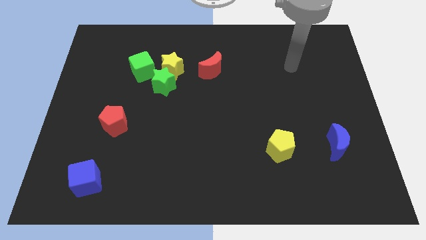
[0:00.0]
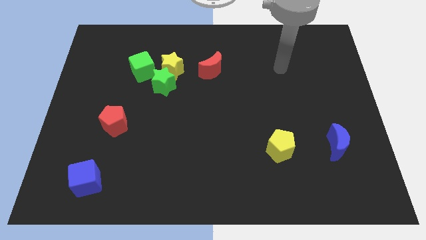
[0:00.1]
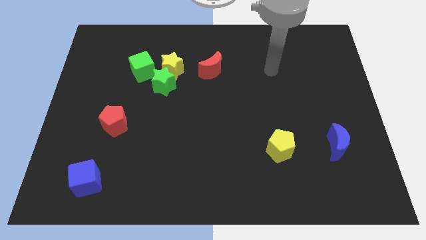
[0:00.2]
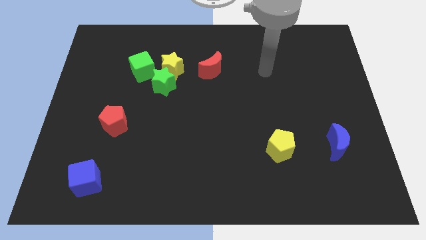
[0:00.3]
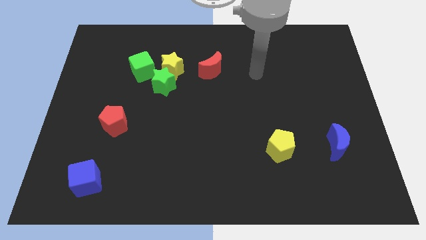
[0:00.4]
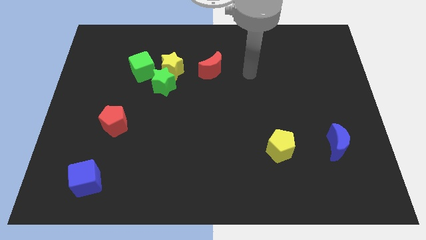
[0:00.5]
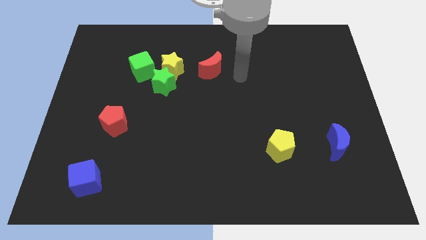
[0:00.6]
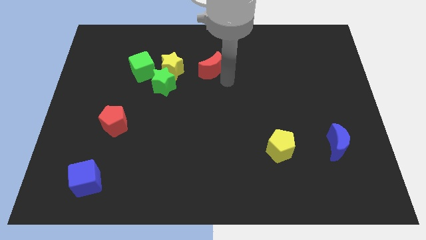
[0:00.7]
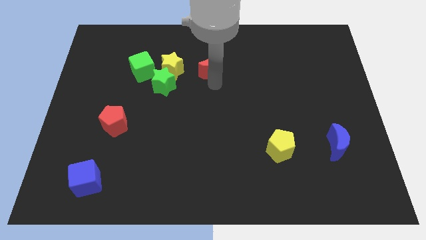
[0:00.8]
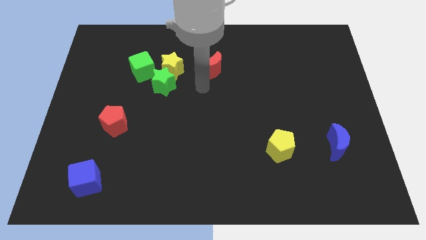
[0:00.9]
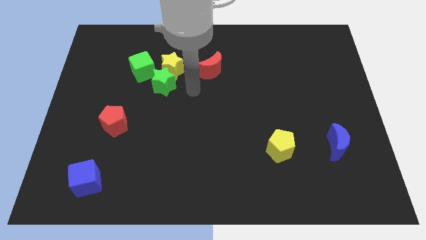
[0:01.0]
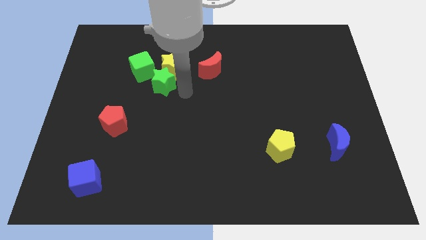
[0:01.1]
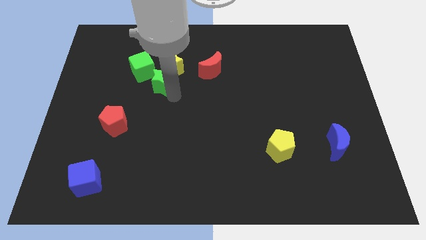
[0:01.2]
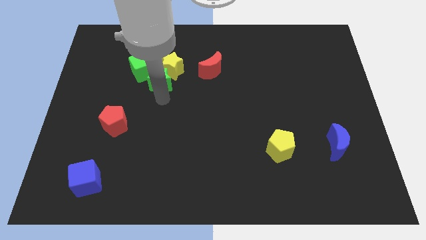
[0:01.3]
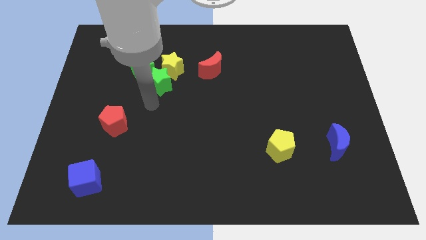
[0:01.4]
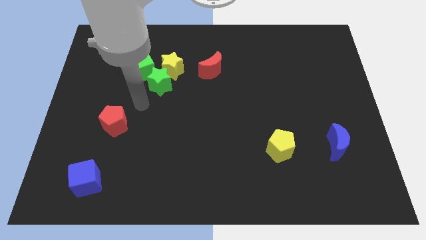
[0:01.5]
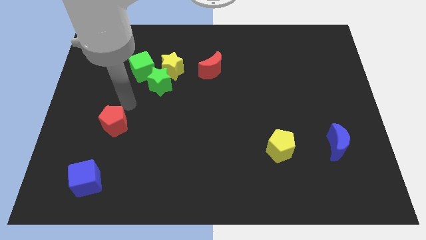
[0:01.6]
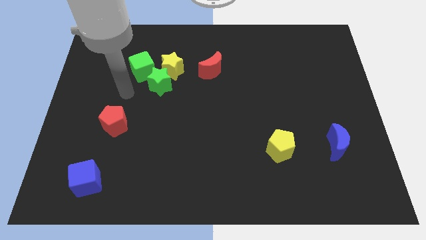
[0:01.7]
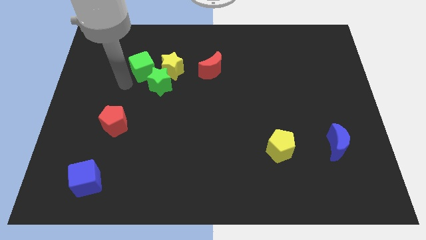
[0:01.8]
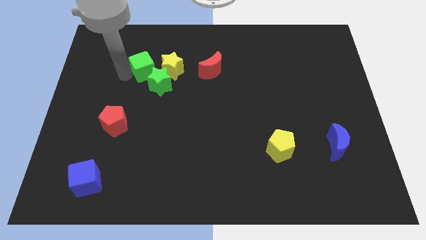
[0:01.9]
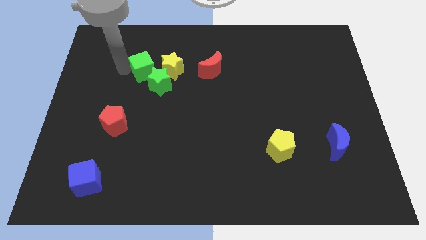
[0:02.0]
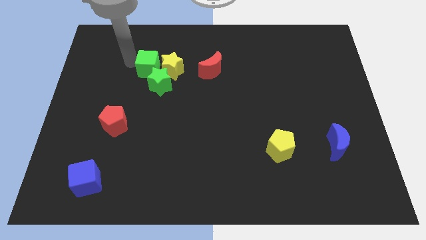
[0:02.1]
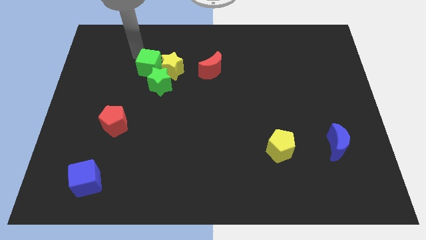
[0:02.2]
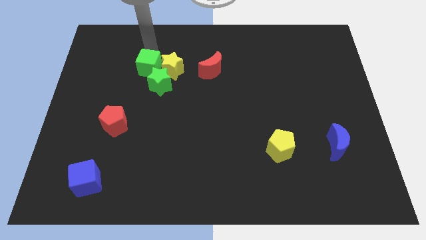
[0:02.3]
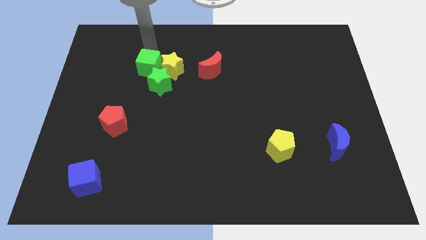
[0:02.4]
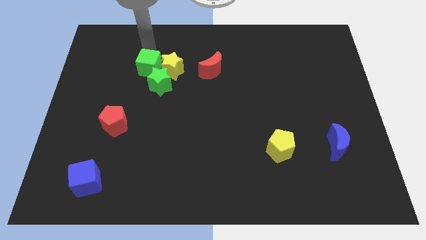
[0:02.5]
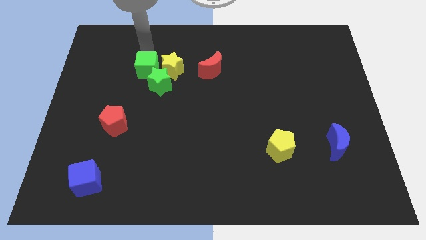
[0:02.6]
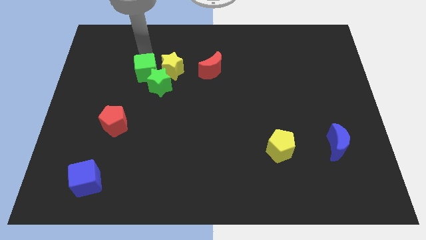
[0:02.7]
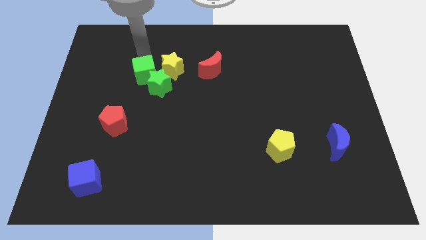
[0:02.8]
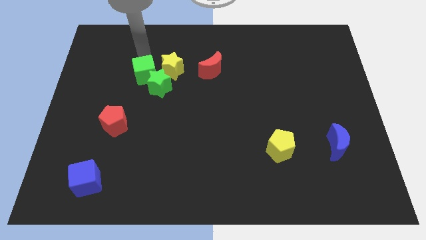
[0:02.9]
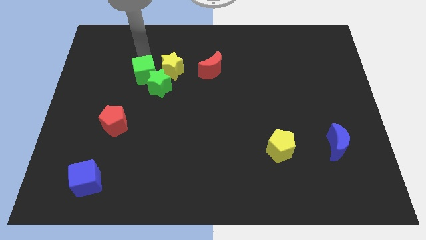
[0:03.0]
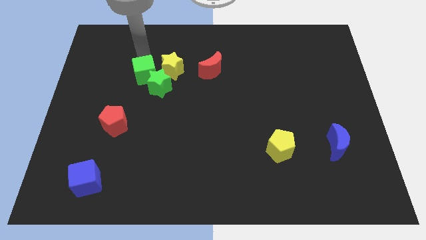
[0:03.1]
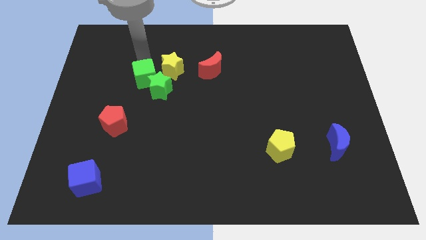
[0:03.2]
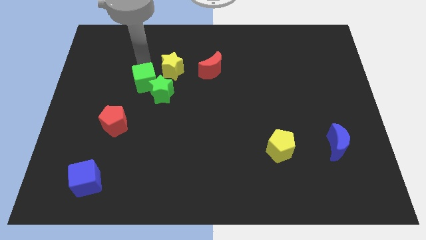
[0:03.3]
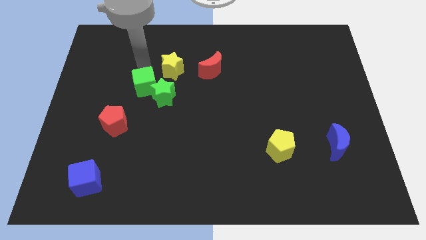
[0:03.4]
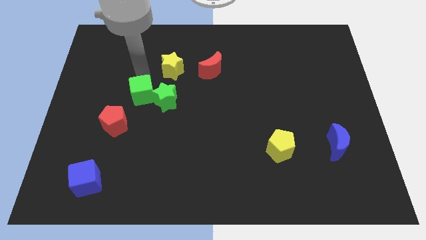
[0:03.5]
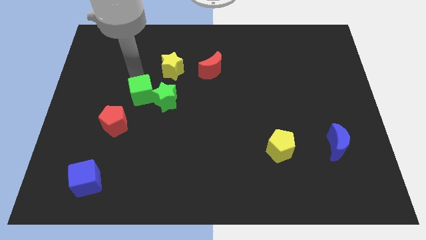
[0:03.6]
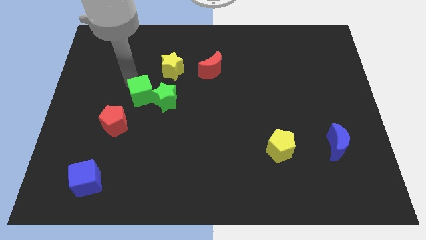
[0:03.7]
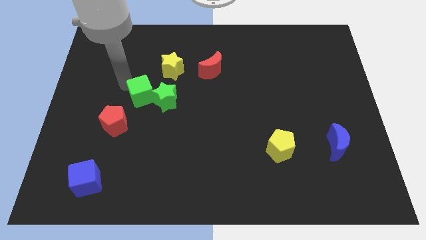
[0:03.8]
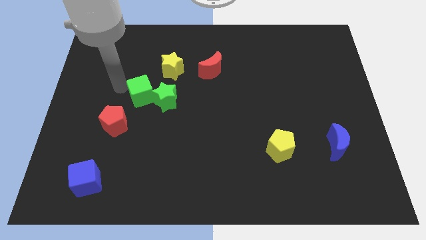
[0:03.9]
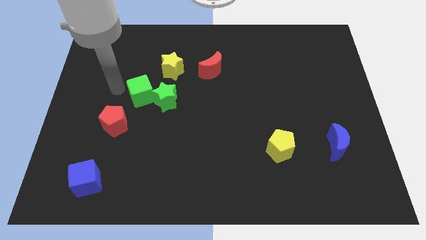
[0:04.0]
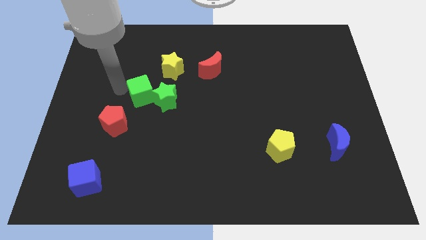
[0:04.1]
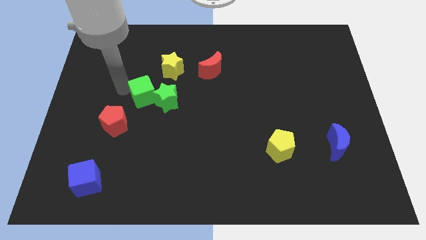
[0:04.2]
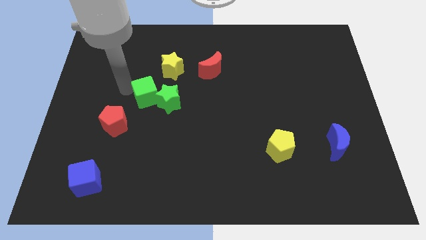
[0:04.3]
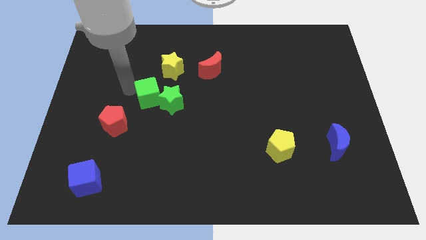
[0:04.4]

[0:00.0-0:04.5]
push the green cube down and to the right slightly

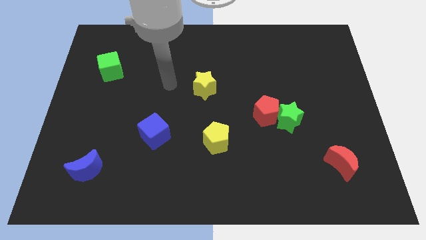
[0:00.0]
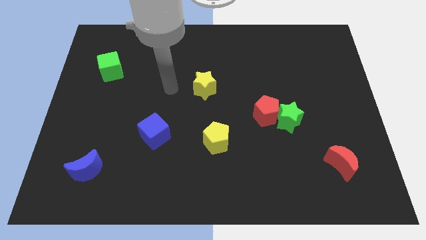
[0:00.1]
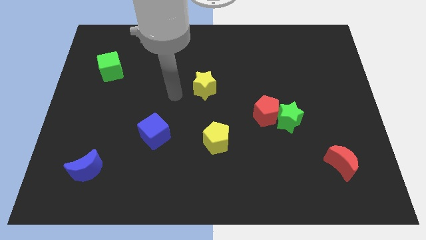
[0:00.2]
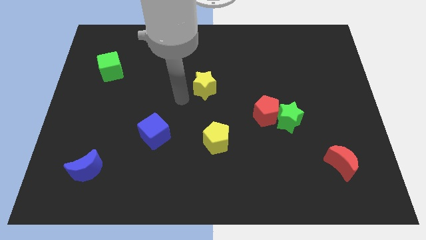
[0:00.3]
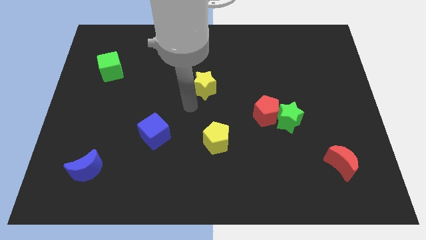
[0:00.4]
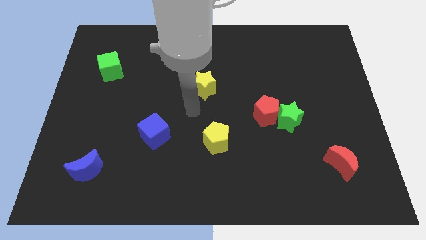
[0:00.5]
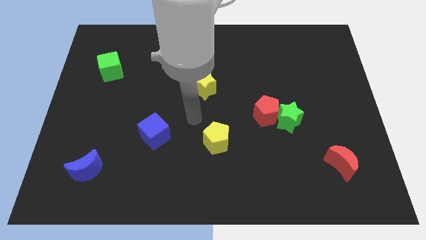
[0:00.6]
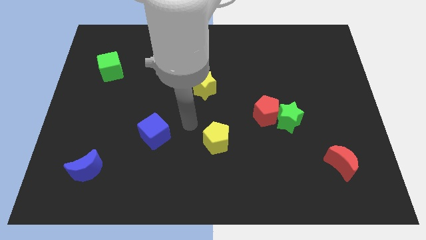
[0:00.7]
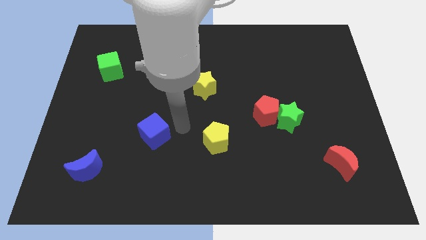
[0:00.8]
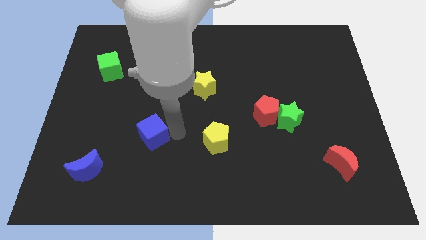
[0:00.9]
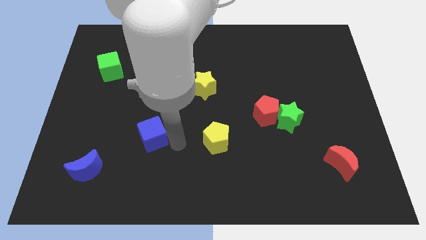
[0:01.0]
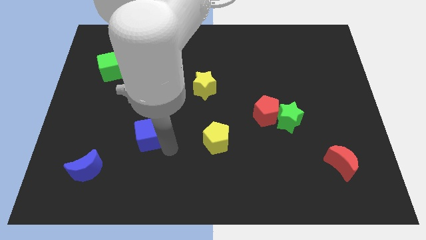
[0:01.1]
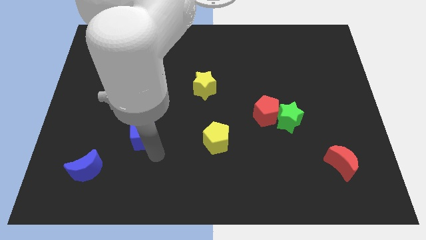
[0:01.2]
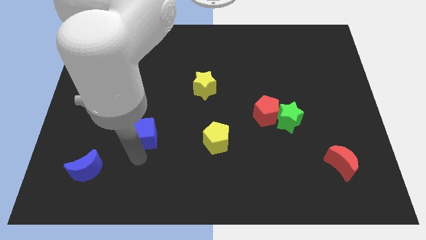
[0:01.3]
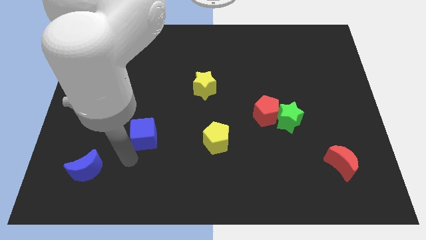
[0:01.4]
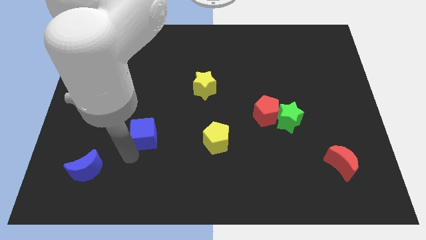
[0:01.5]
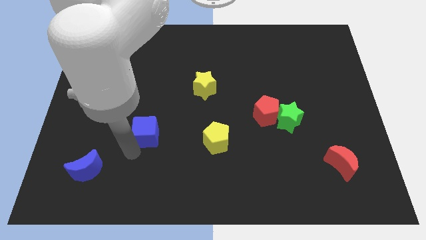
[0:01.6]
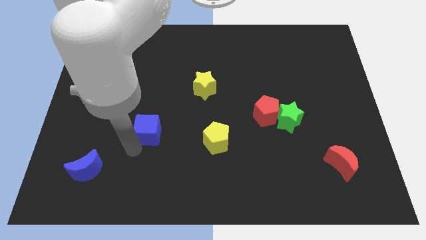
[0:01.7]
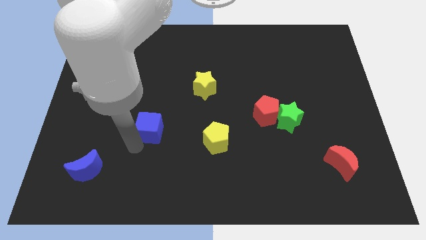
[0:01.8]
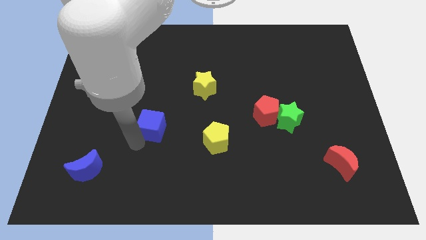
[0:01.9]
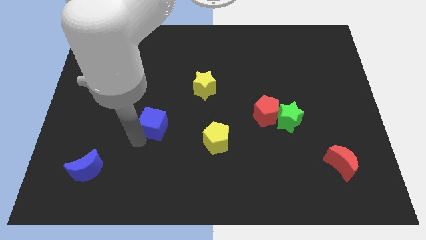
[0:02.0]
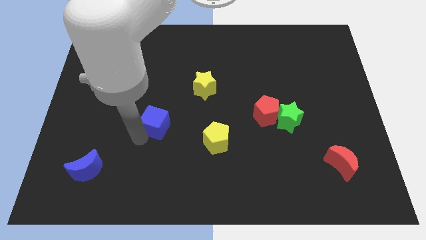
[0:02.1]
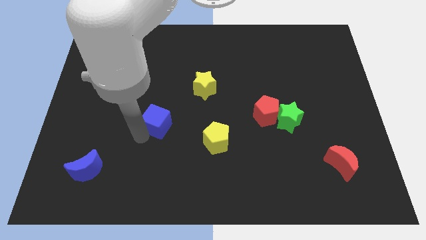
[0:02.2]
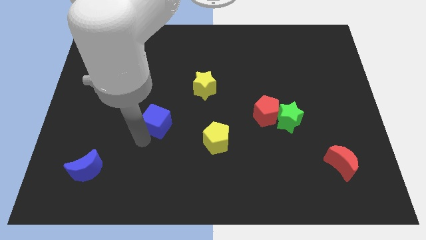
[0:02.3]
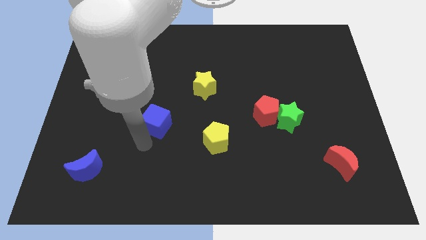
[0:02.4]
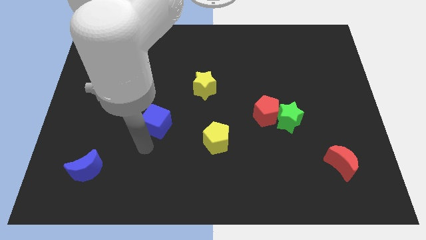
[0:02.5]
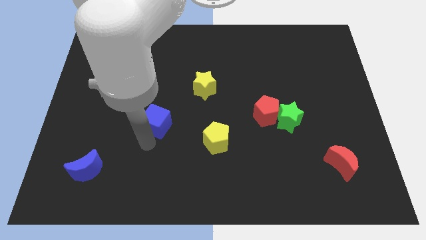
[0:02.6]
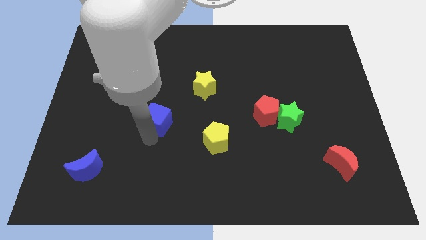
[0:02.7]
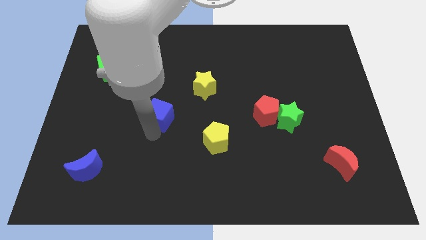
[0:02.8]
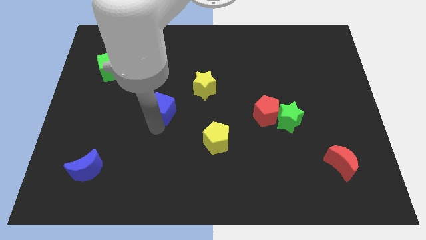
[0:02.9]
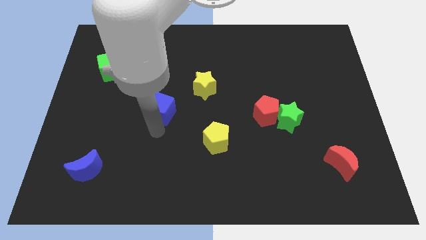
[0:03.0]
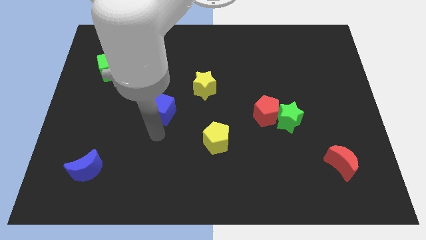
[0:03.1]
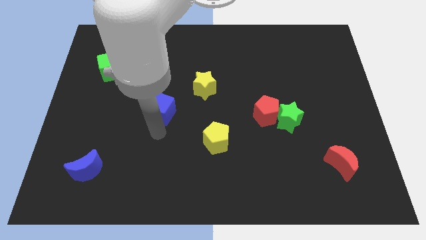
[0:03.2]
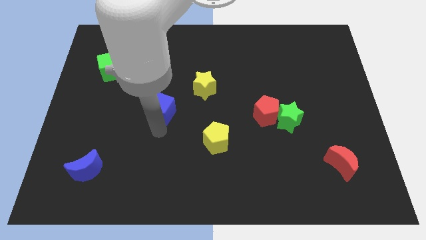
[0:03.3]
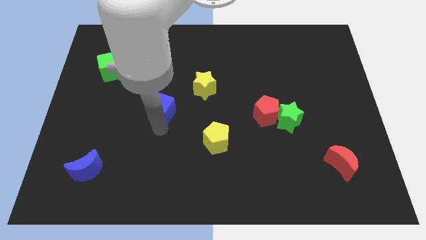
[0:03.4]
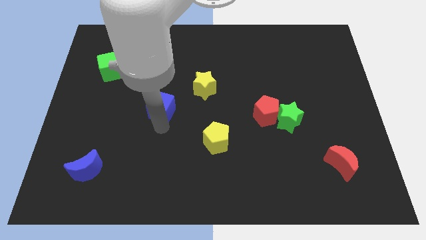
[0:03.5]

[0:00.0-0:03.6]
move the blue cube somewhat up
